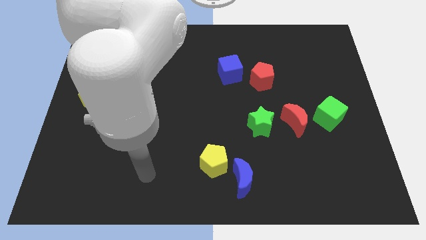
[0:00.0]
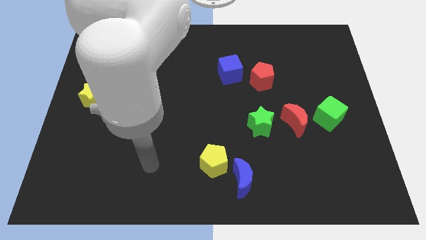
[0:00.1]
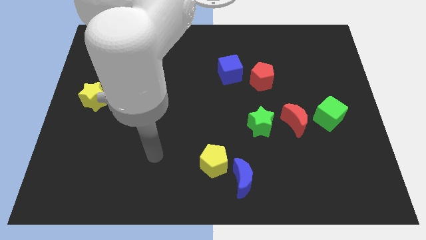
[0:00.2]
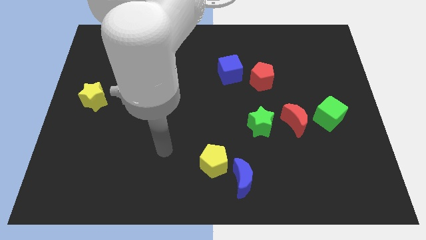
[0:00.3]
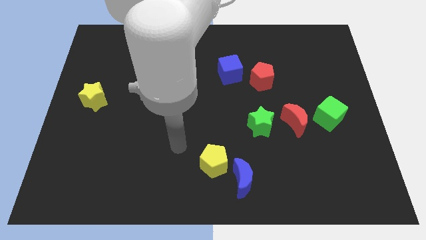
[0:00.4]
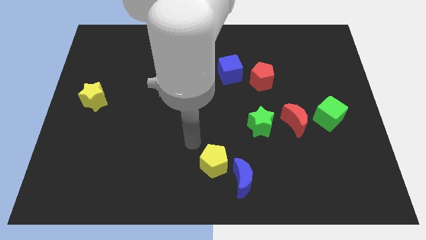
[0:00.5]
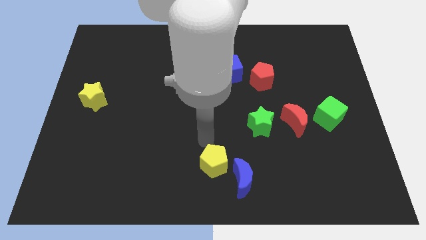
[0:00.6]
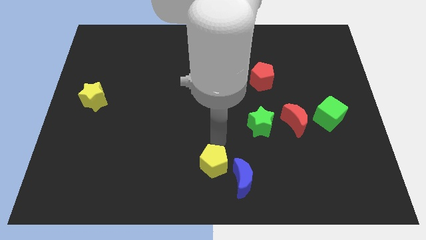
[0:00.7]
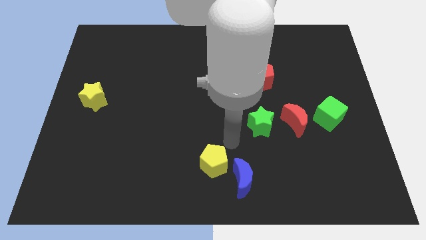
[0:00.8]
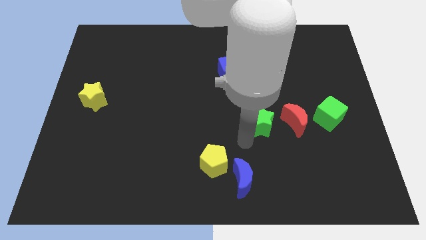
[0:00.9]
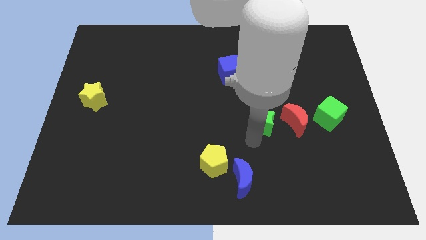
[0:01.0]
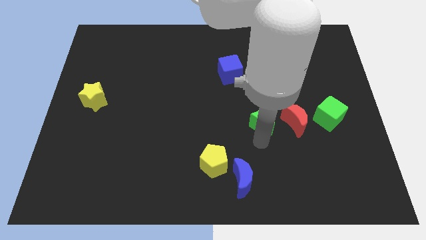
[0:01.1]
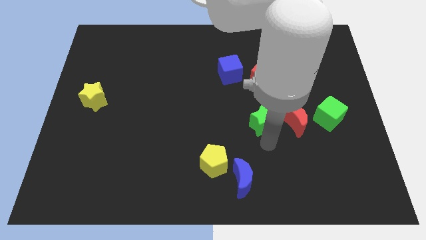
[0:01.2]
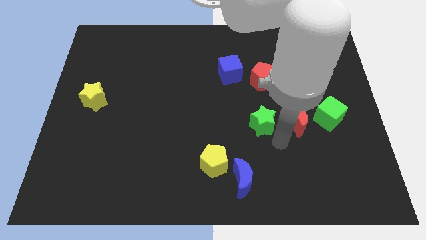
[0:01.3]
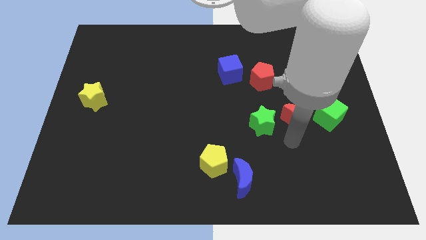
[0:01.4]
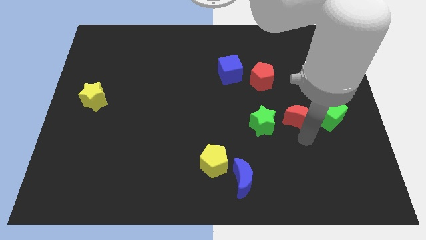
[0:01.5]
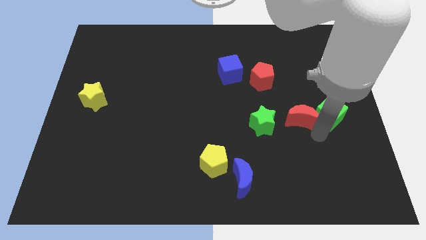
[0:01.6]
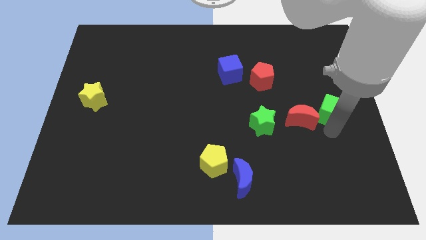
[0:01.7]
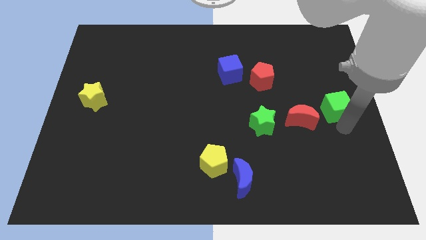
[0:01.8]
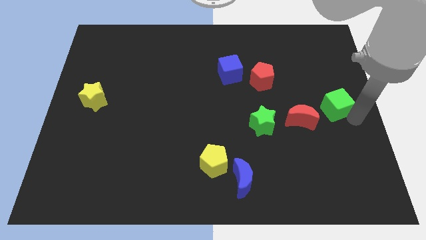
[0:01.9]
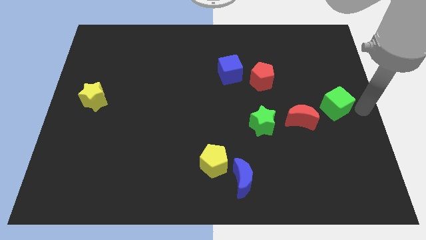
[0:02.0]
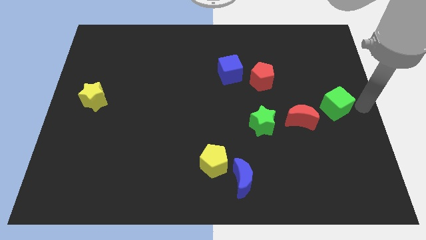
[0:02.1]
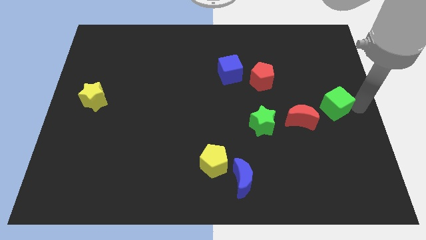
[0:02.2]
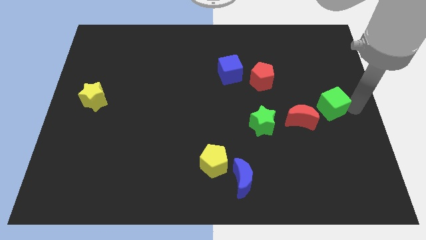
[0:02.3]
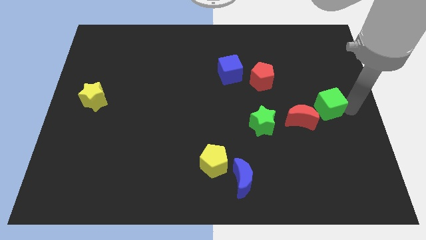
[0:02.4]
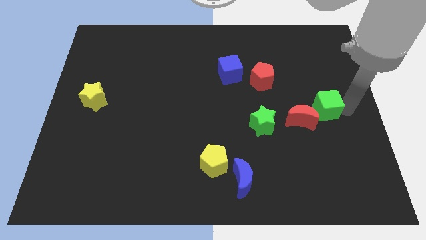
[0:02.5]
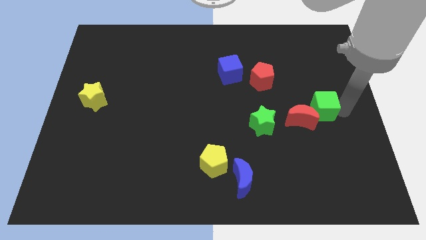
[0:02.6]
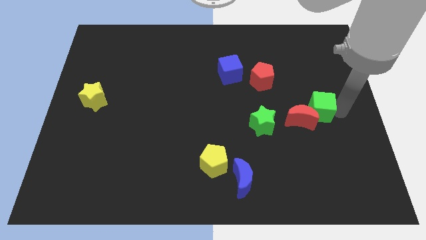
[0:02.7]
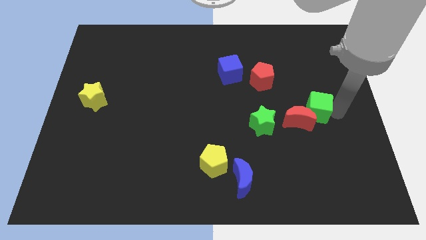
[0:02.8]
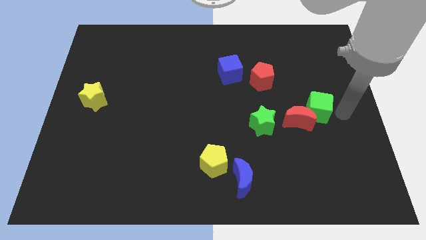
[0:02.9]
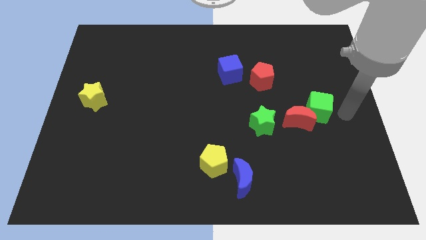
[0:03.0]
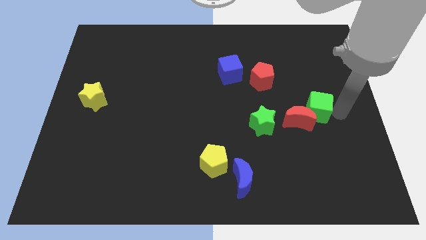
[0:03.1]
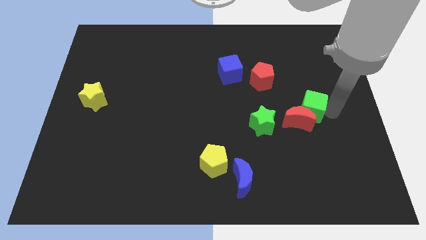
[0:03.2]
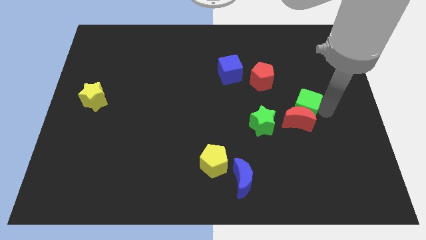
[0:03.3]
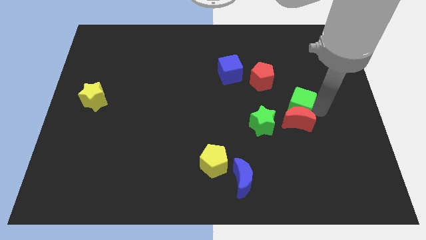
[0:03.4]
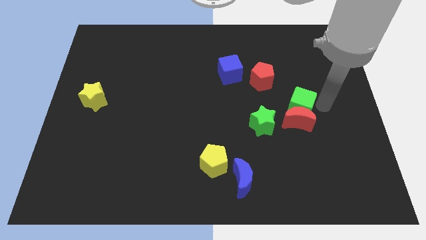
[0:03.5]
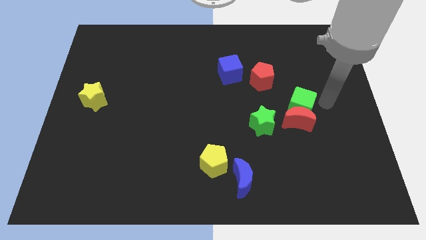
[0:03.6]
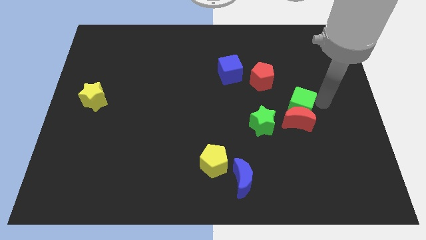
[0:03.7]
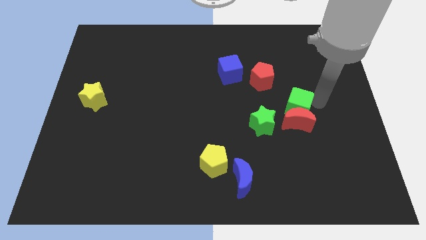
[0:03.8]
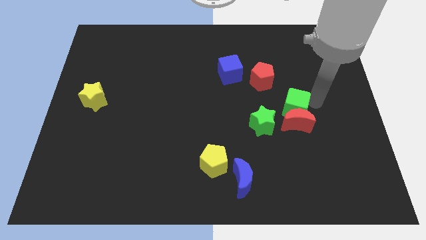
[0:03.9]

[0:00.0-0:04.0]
push the green cube a bit to the left

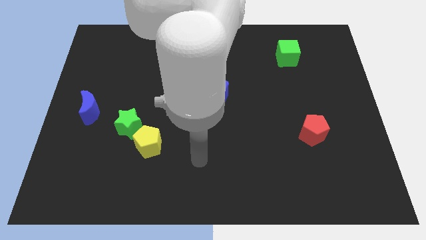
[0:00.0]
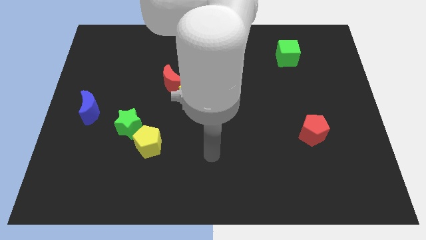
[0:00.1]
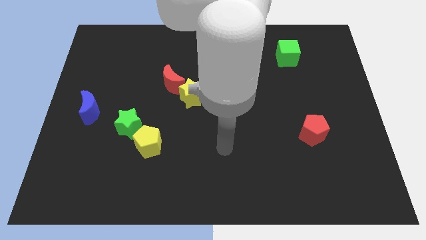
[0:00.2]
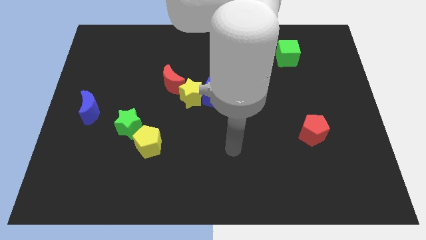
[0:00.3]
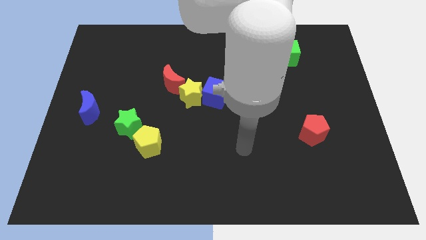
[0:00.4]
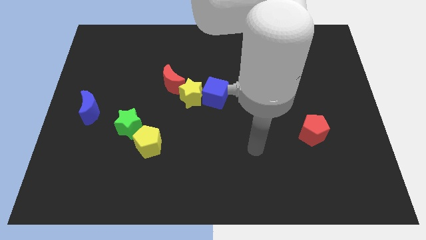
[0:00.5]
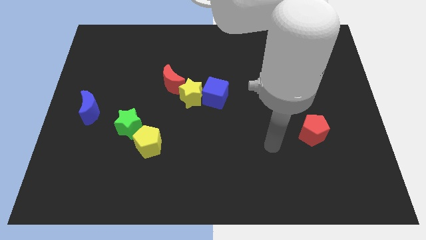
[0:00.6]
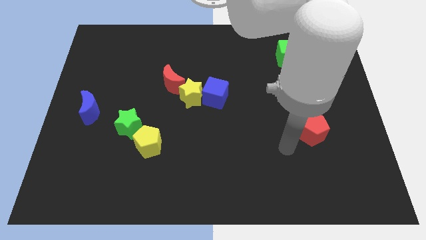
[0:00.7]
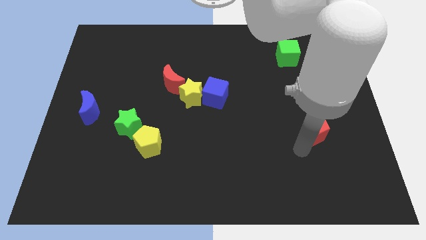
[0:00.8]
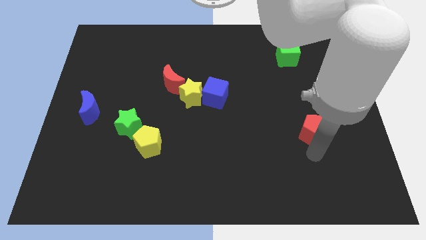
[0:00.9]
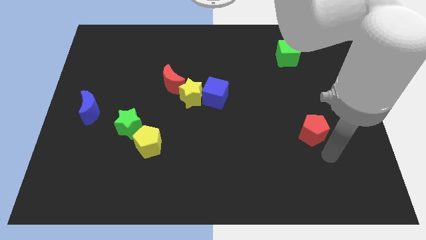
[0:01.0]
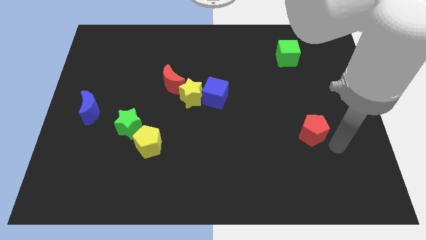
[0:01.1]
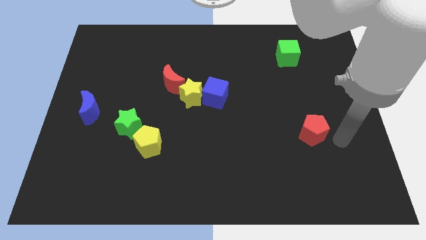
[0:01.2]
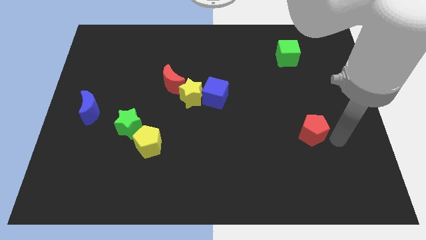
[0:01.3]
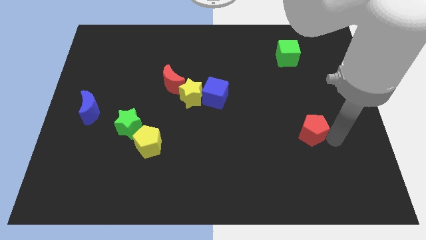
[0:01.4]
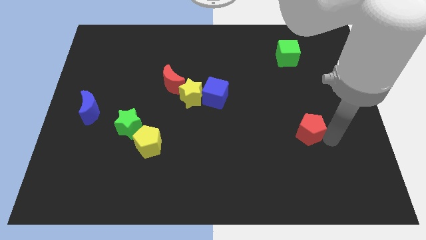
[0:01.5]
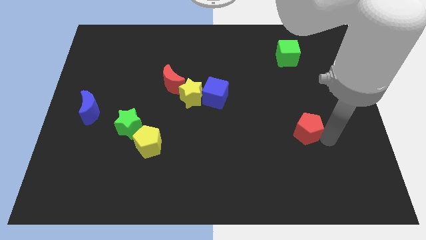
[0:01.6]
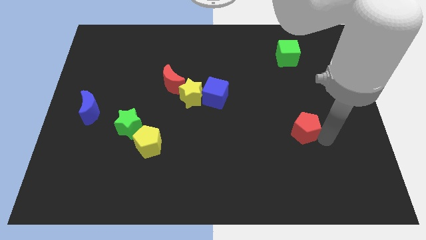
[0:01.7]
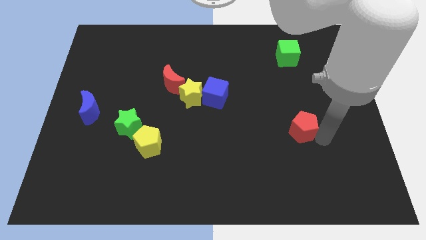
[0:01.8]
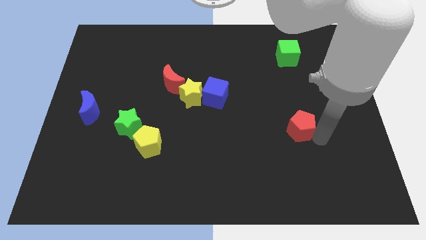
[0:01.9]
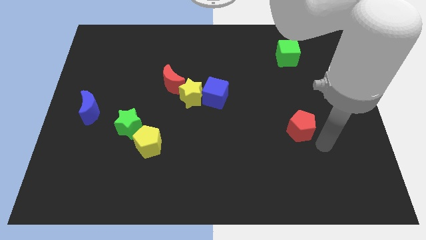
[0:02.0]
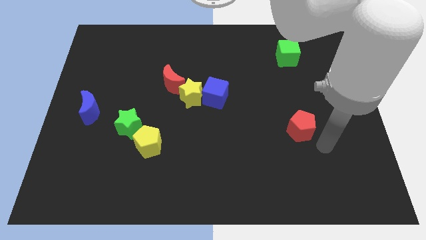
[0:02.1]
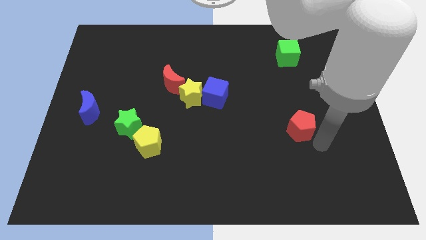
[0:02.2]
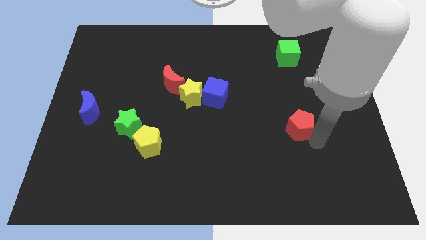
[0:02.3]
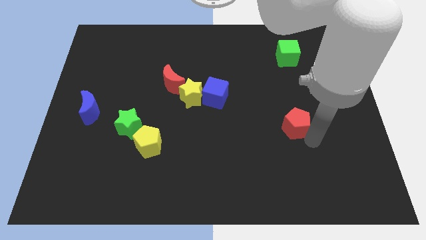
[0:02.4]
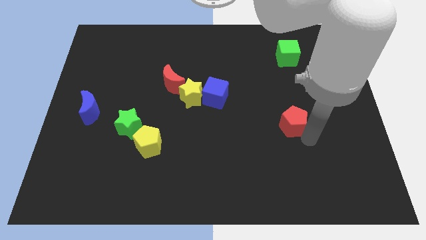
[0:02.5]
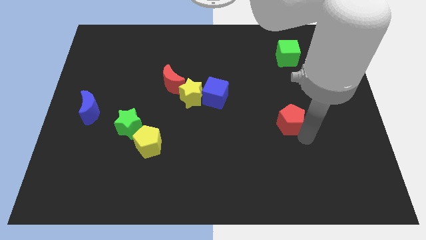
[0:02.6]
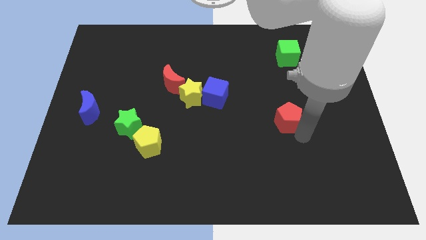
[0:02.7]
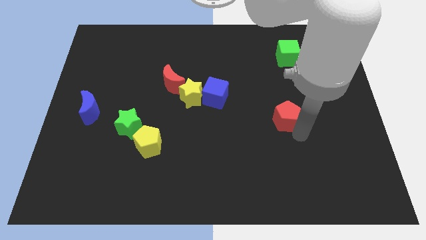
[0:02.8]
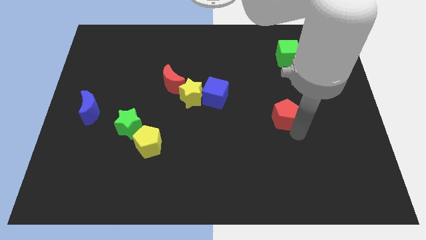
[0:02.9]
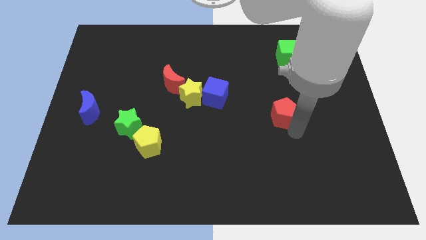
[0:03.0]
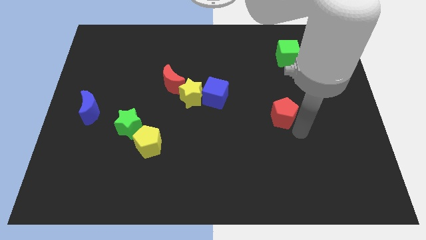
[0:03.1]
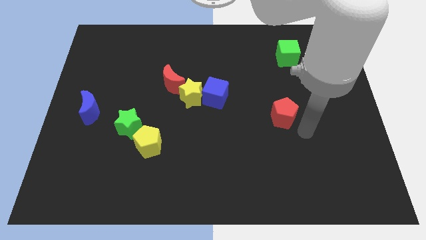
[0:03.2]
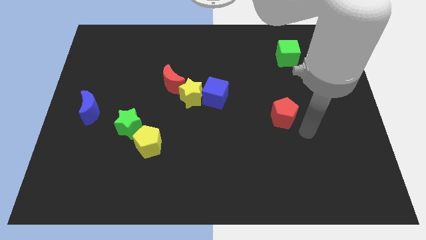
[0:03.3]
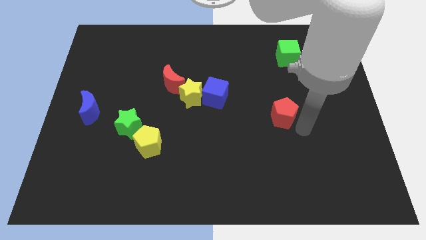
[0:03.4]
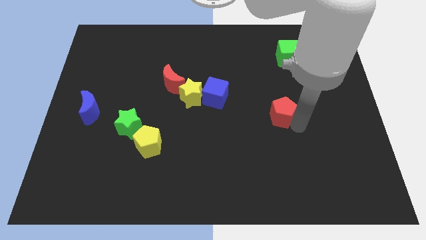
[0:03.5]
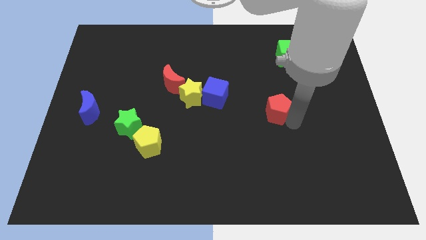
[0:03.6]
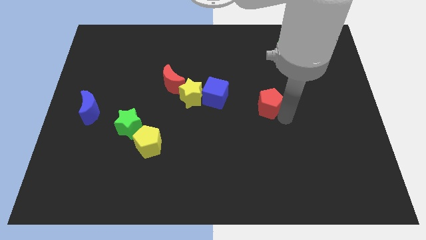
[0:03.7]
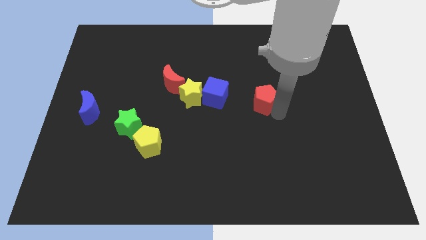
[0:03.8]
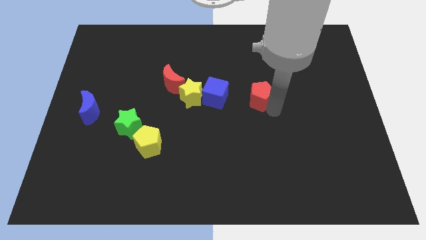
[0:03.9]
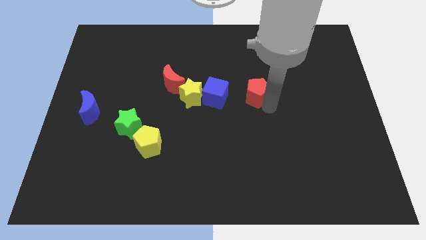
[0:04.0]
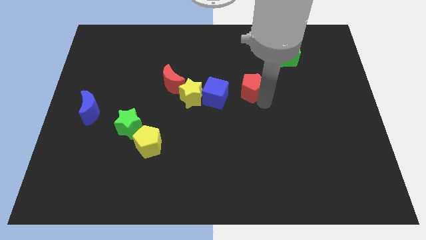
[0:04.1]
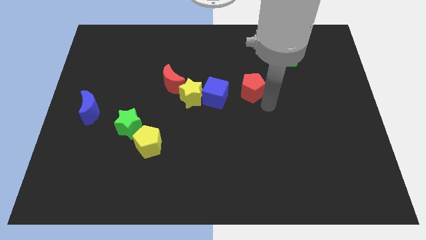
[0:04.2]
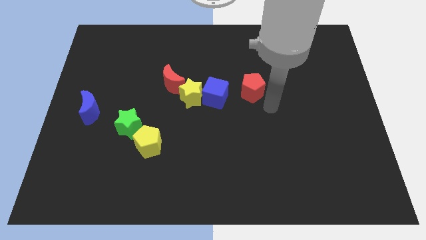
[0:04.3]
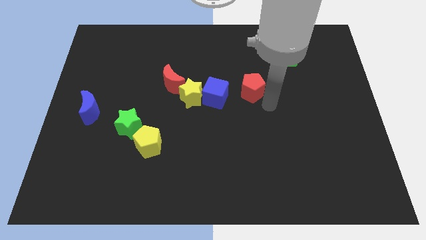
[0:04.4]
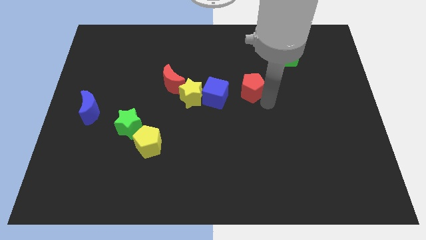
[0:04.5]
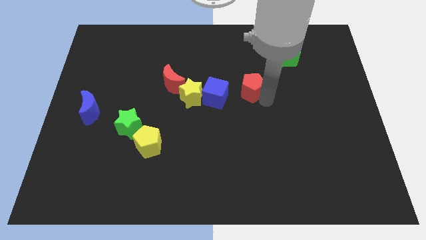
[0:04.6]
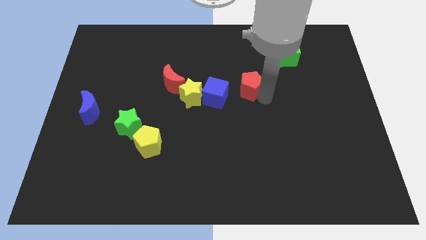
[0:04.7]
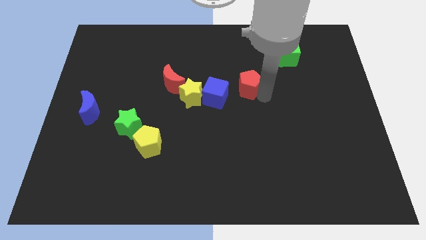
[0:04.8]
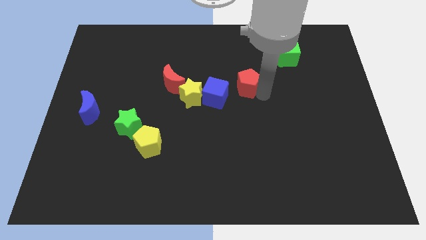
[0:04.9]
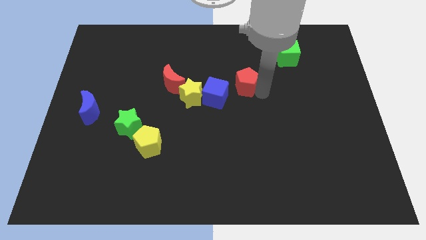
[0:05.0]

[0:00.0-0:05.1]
push the red pentagon up and then left
